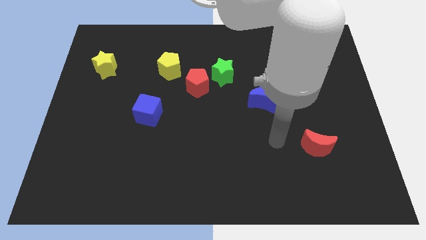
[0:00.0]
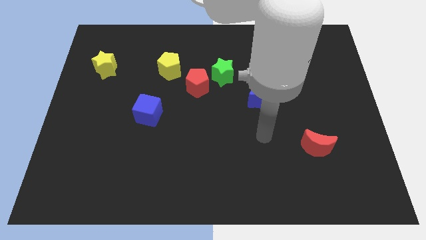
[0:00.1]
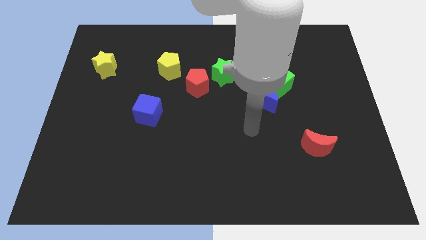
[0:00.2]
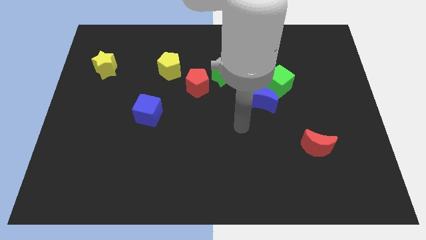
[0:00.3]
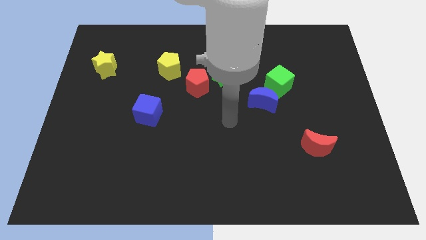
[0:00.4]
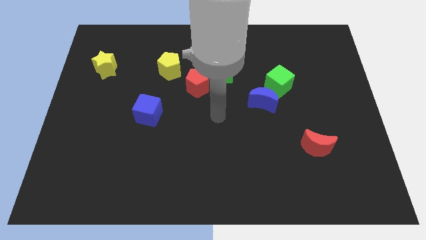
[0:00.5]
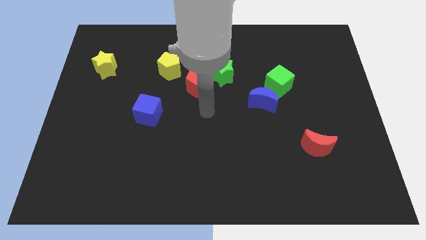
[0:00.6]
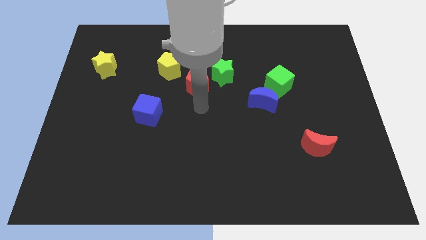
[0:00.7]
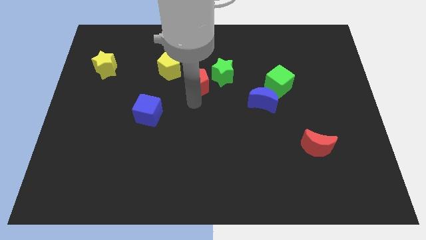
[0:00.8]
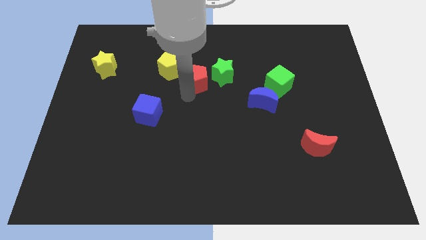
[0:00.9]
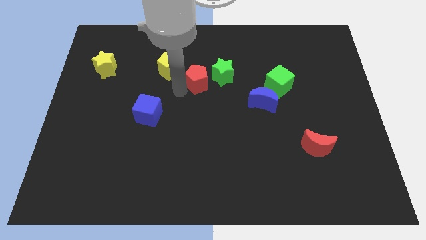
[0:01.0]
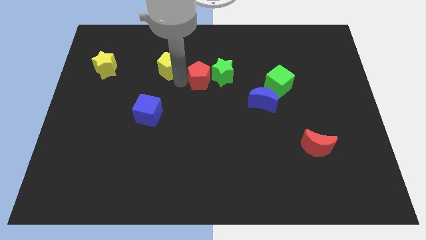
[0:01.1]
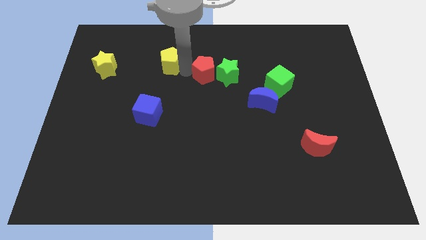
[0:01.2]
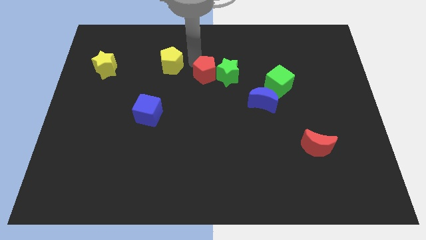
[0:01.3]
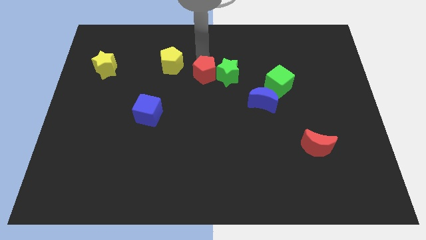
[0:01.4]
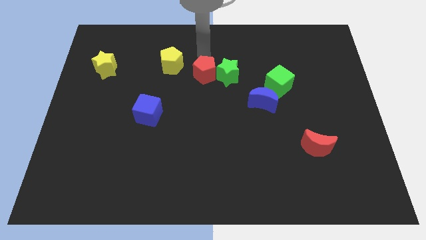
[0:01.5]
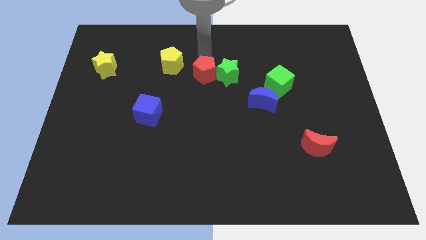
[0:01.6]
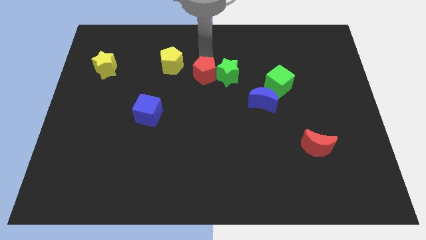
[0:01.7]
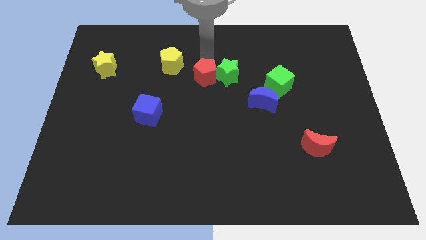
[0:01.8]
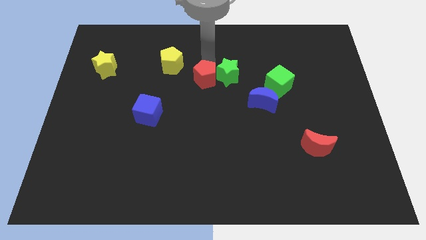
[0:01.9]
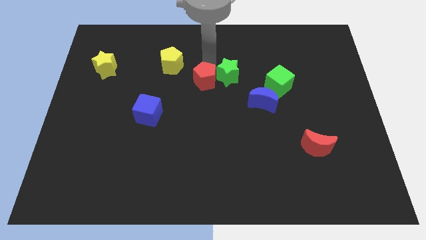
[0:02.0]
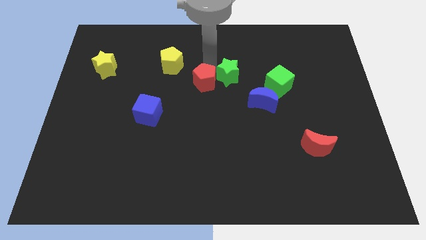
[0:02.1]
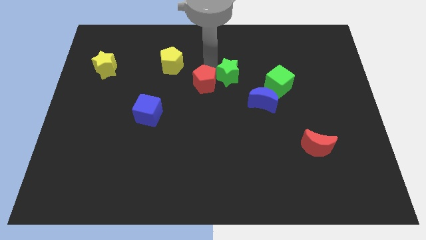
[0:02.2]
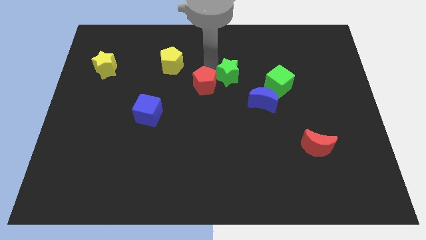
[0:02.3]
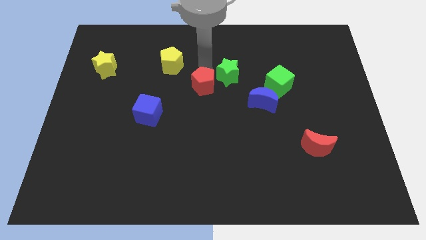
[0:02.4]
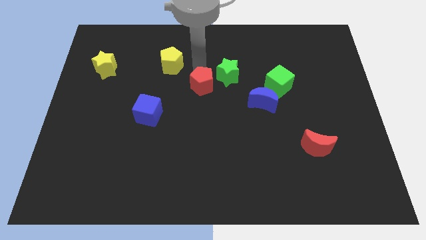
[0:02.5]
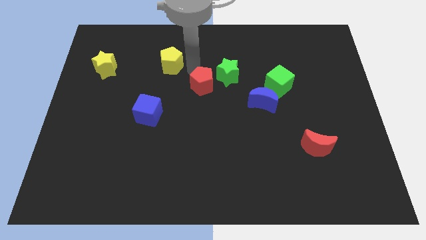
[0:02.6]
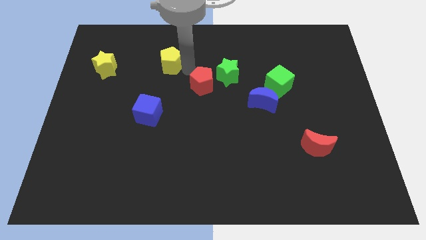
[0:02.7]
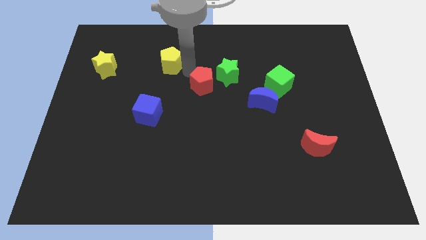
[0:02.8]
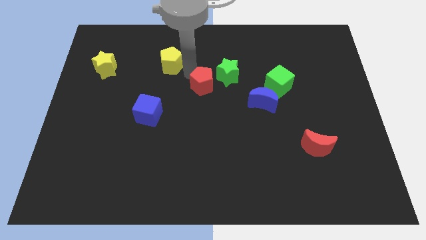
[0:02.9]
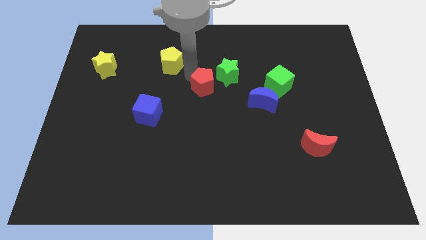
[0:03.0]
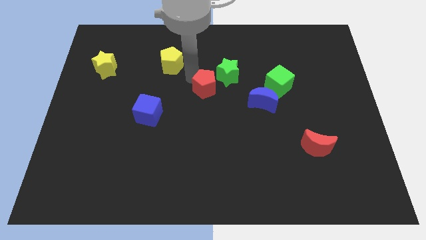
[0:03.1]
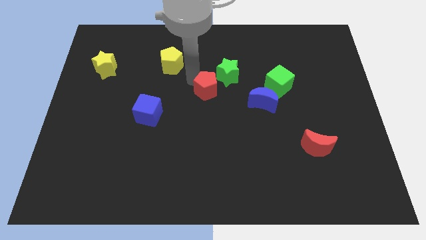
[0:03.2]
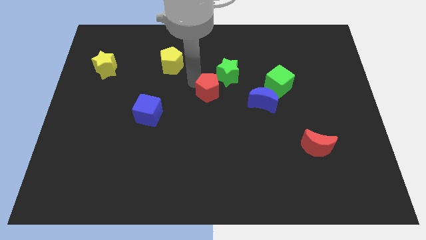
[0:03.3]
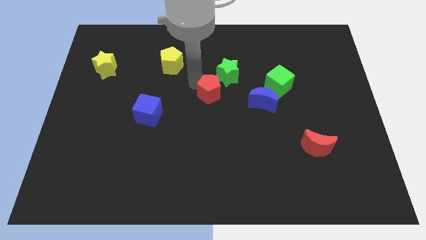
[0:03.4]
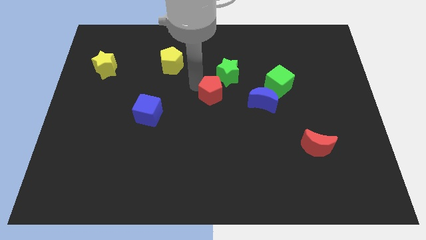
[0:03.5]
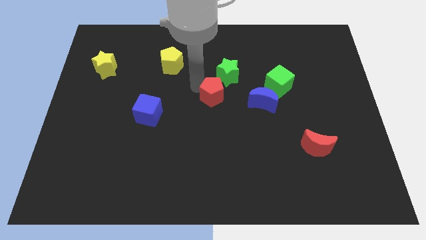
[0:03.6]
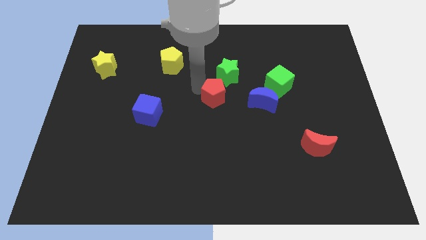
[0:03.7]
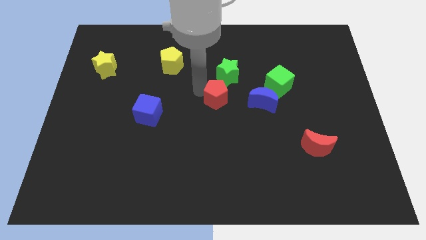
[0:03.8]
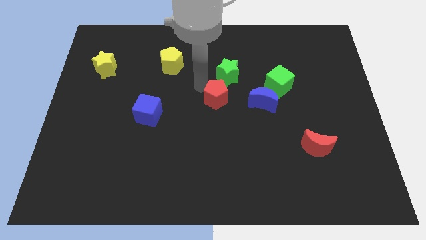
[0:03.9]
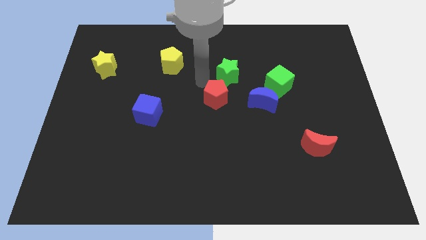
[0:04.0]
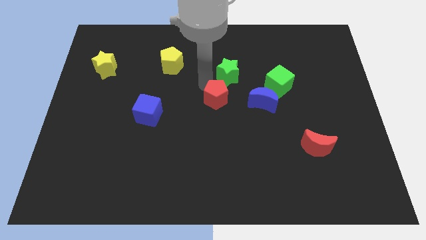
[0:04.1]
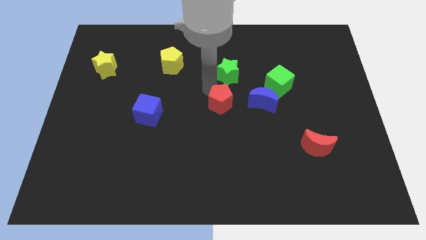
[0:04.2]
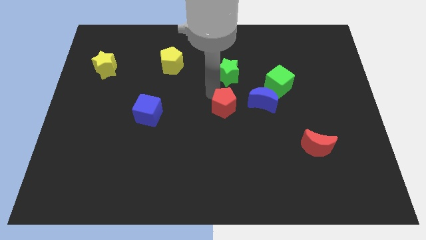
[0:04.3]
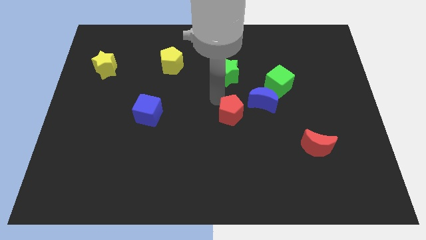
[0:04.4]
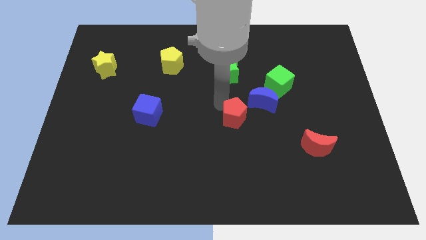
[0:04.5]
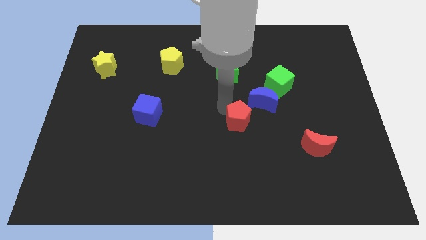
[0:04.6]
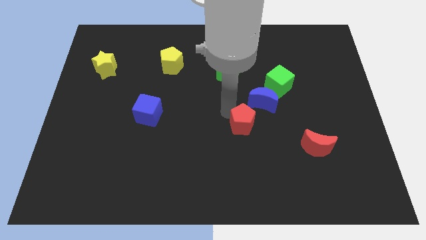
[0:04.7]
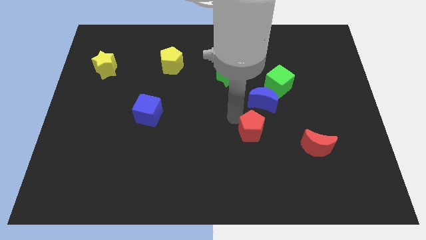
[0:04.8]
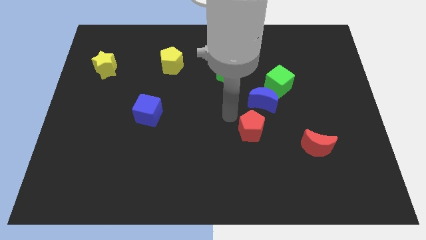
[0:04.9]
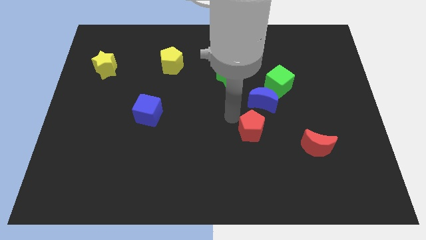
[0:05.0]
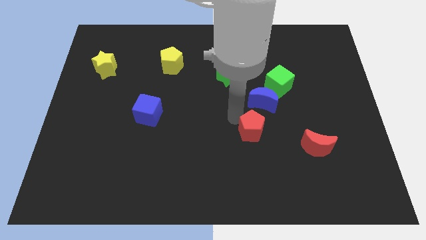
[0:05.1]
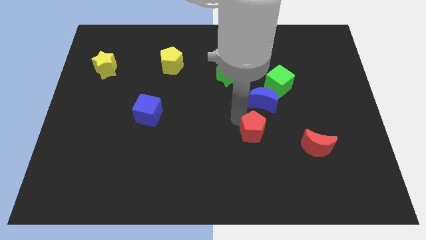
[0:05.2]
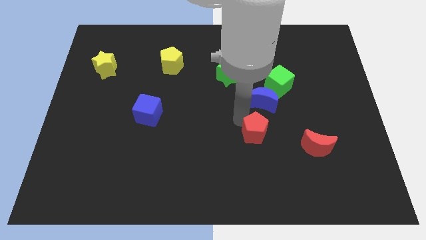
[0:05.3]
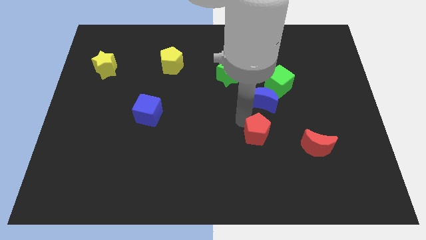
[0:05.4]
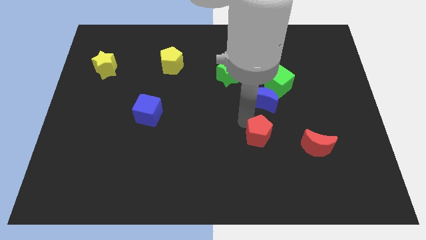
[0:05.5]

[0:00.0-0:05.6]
push the red pentagon downwards and to the right diagonally

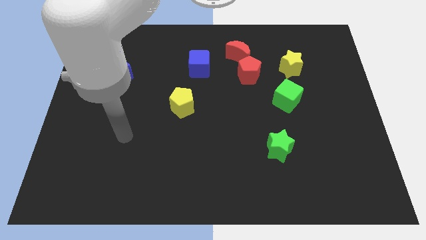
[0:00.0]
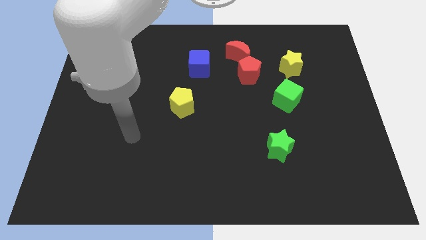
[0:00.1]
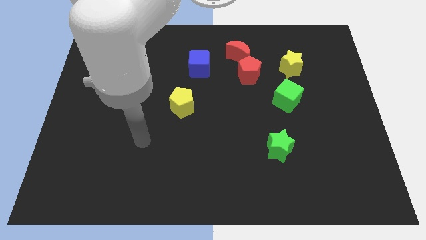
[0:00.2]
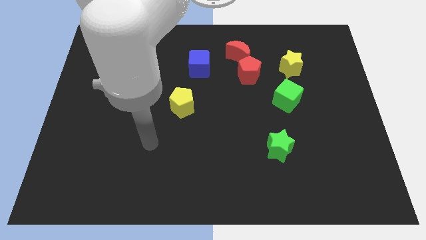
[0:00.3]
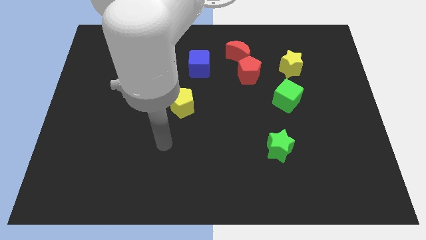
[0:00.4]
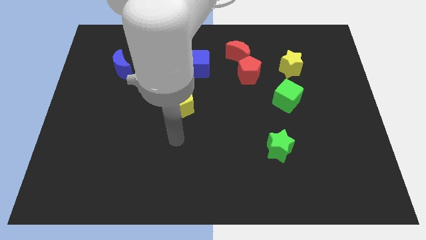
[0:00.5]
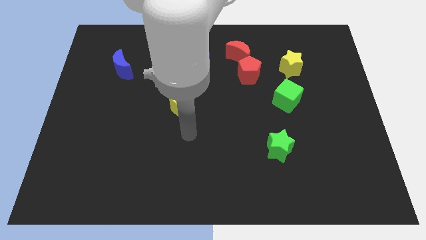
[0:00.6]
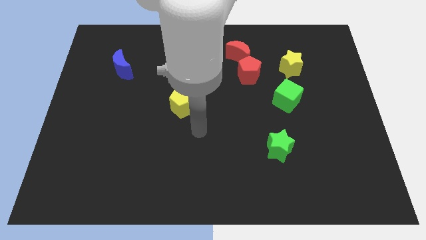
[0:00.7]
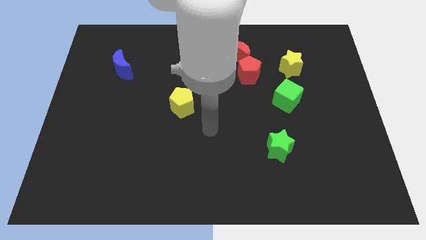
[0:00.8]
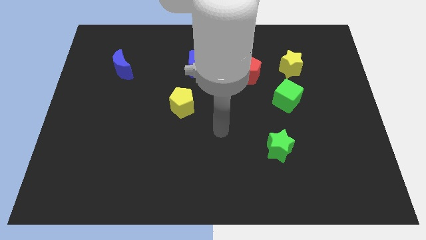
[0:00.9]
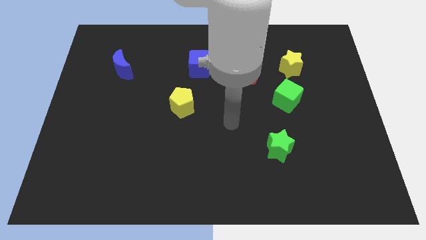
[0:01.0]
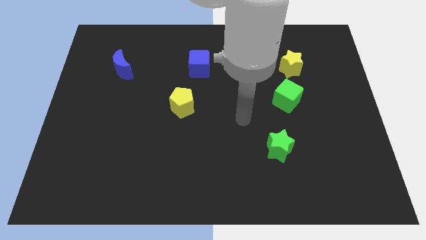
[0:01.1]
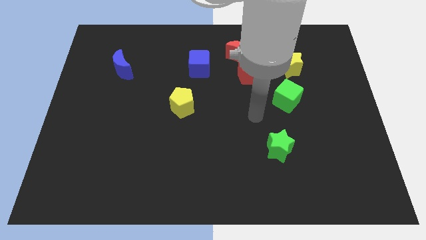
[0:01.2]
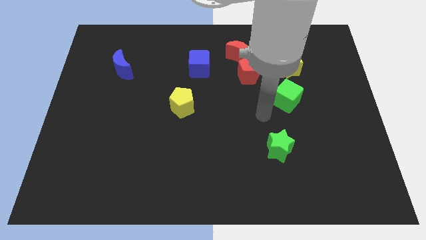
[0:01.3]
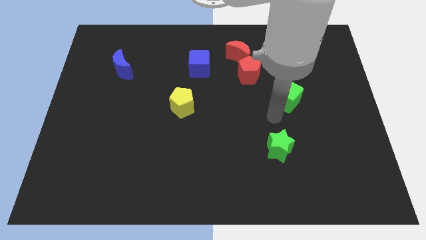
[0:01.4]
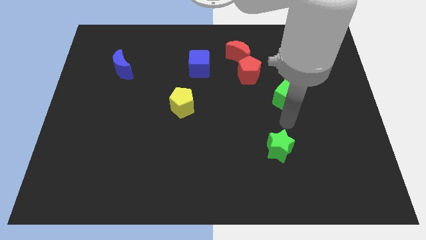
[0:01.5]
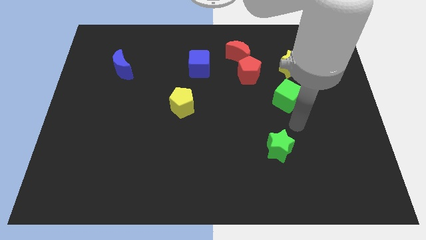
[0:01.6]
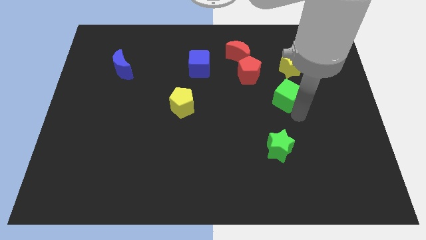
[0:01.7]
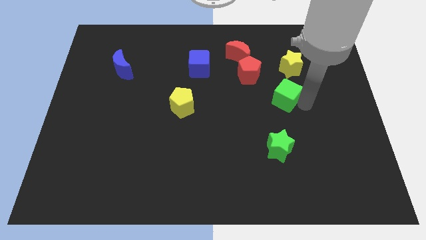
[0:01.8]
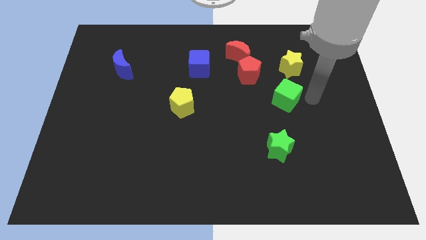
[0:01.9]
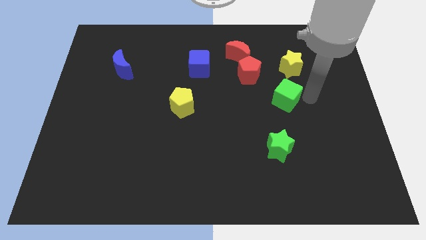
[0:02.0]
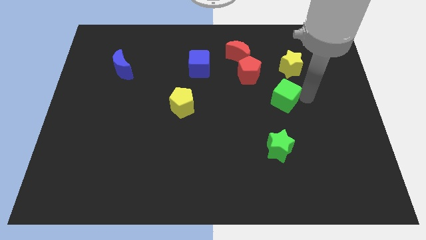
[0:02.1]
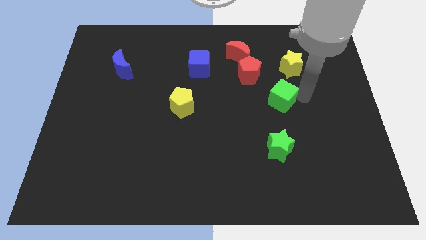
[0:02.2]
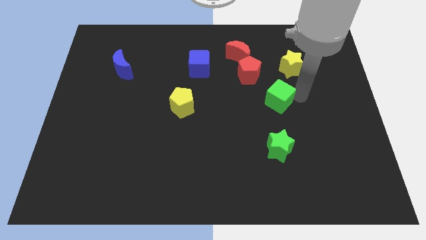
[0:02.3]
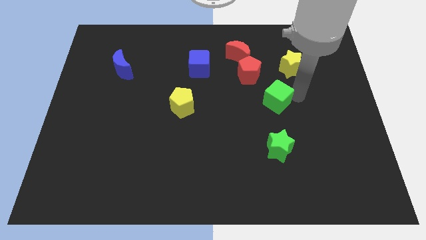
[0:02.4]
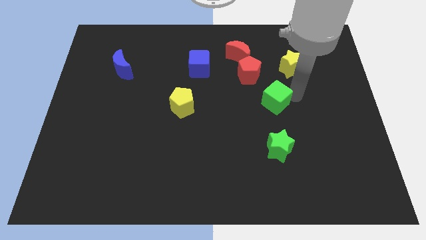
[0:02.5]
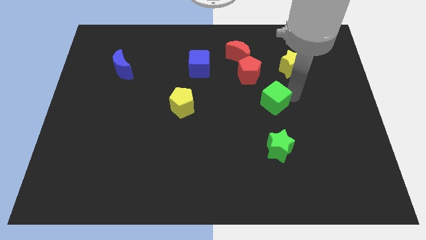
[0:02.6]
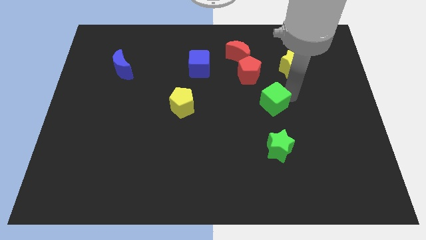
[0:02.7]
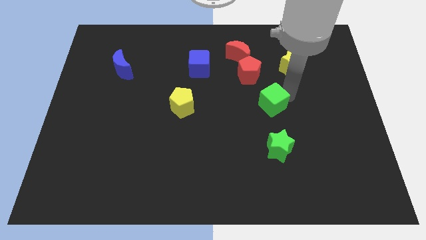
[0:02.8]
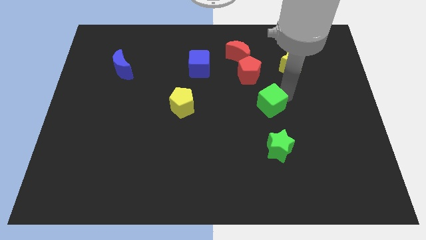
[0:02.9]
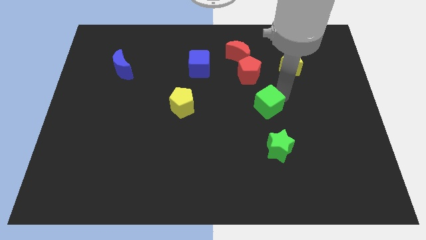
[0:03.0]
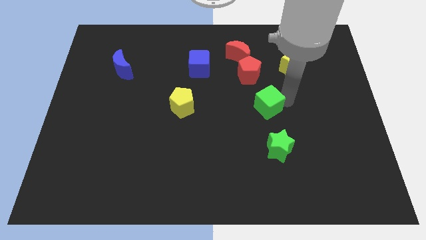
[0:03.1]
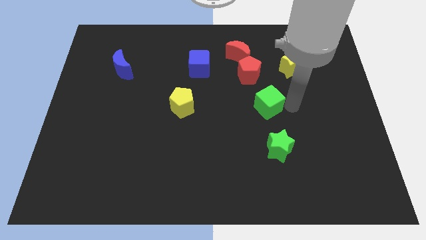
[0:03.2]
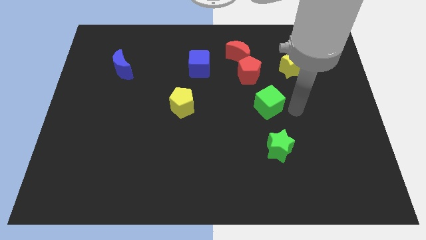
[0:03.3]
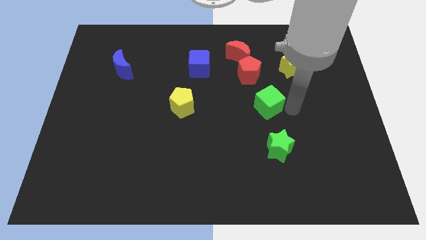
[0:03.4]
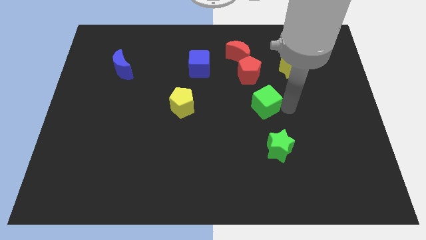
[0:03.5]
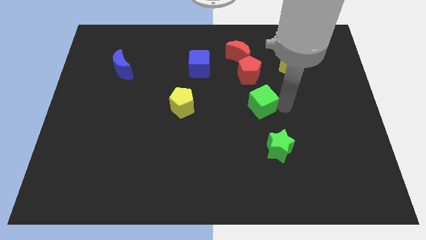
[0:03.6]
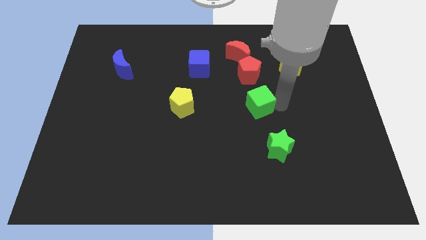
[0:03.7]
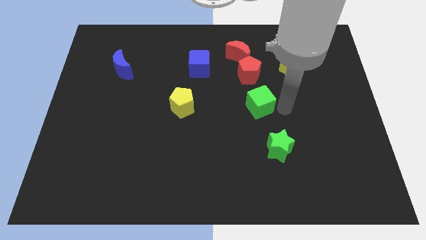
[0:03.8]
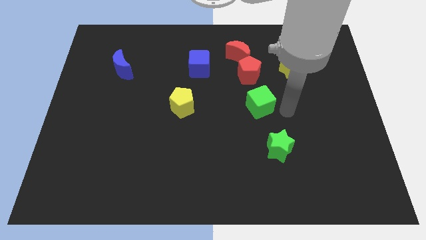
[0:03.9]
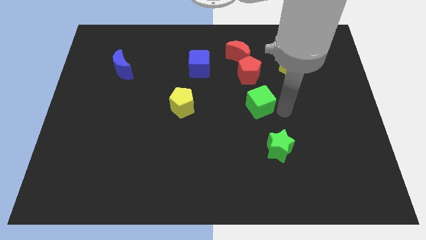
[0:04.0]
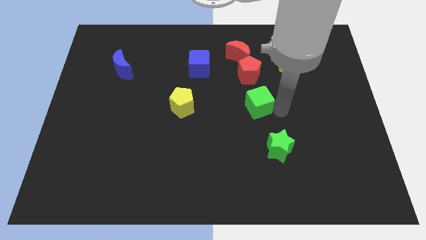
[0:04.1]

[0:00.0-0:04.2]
slightly slide the green cube to the left
